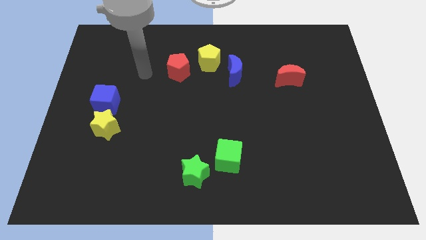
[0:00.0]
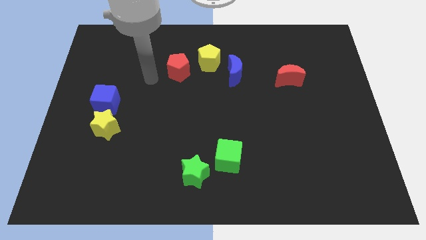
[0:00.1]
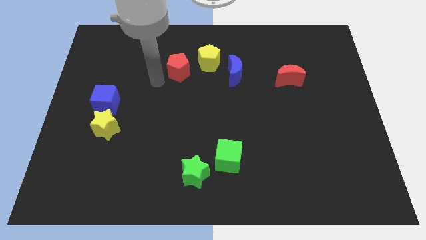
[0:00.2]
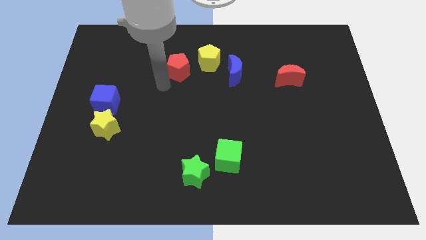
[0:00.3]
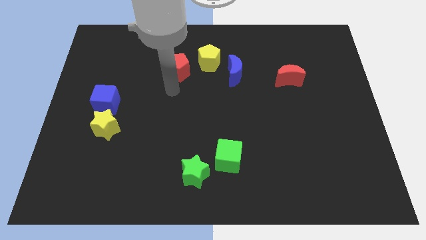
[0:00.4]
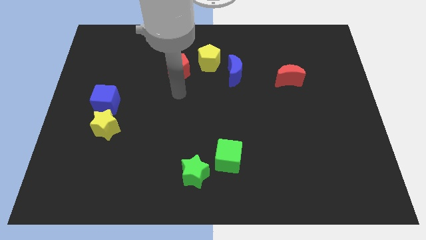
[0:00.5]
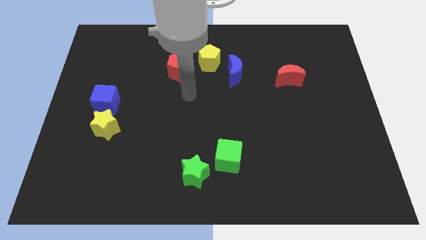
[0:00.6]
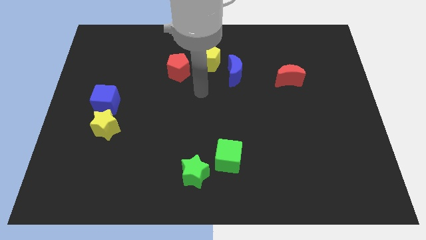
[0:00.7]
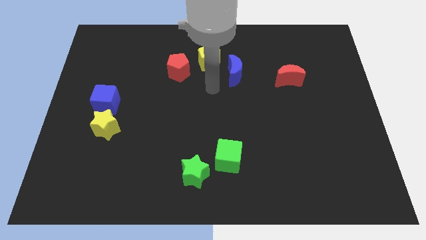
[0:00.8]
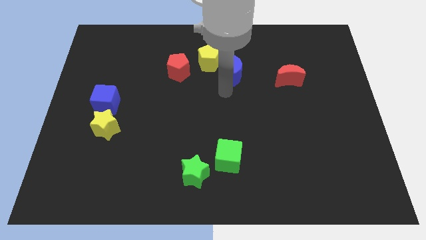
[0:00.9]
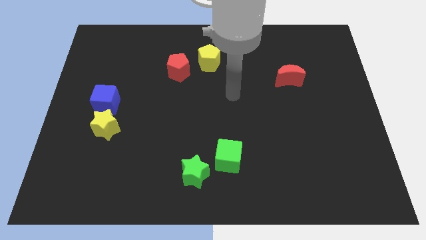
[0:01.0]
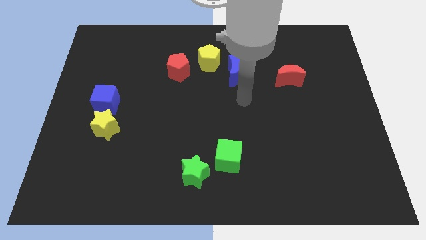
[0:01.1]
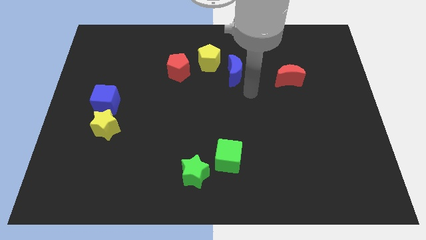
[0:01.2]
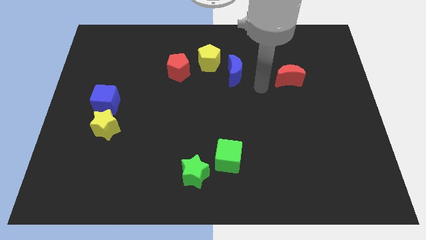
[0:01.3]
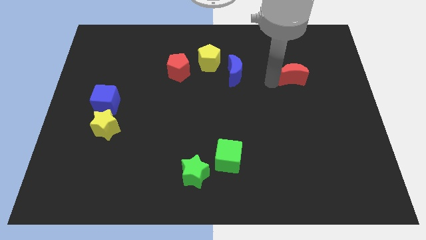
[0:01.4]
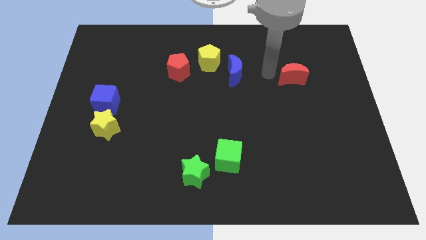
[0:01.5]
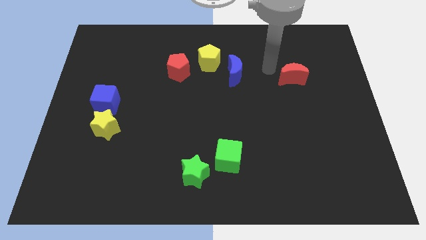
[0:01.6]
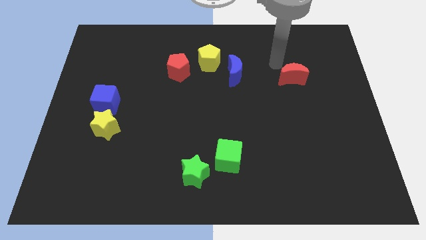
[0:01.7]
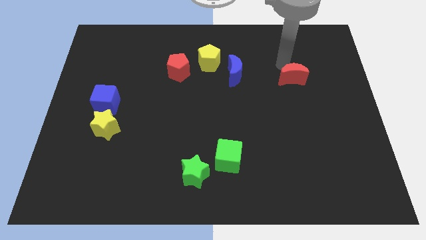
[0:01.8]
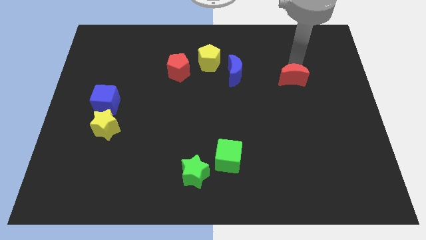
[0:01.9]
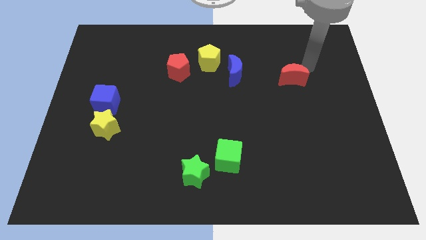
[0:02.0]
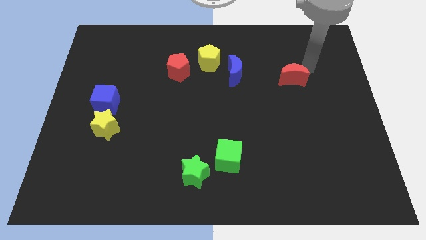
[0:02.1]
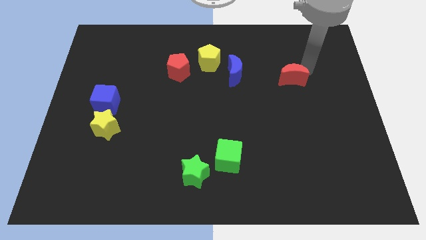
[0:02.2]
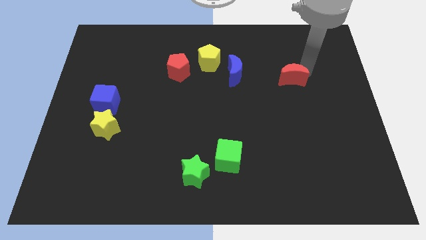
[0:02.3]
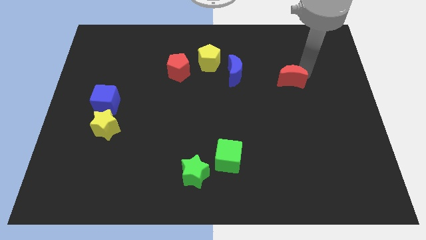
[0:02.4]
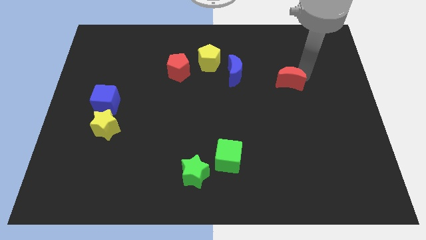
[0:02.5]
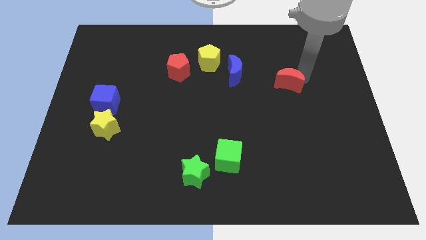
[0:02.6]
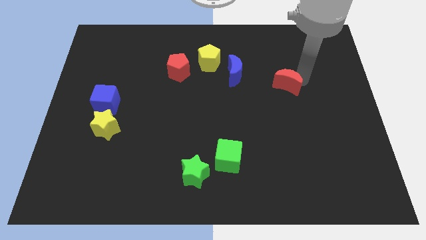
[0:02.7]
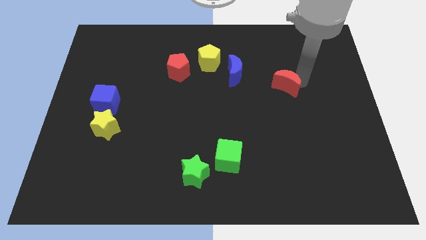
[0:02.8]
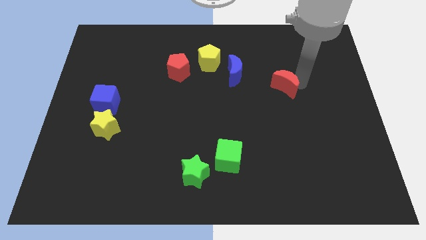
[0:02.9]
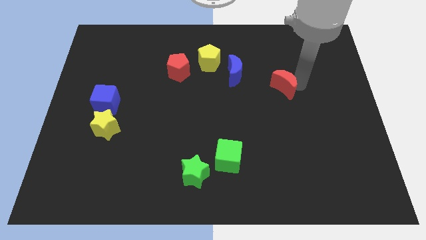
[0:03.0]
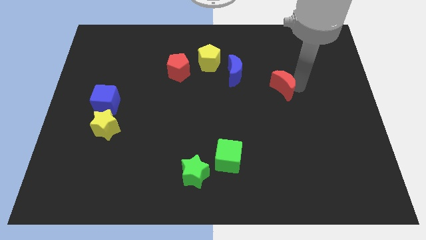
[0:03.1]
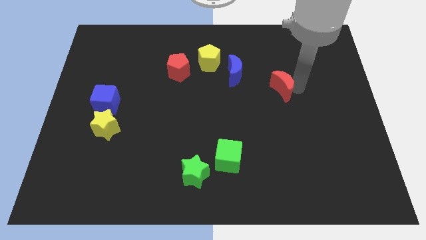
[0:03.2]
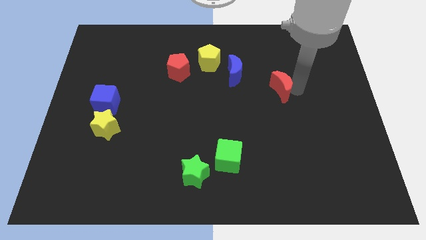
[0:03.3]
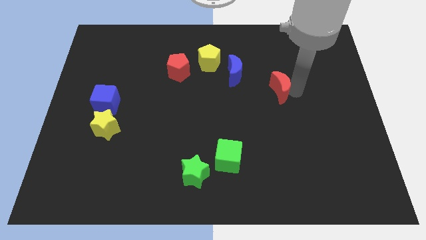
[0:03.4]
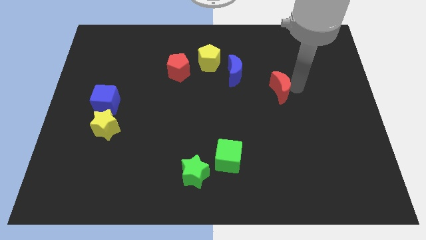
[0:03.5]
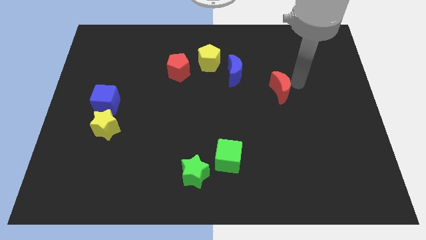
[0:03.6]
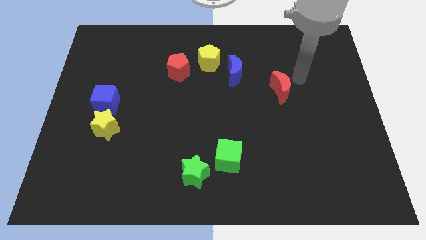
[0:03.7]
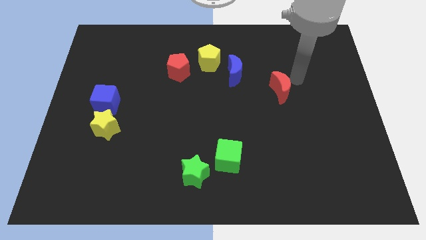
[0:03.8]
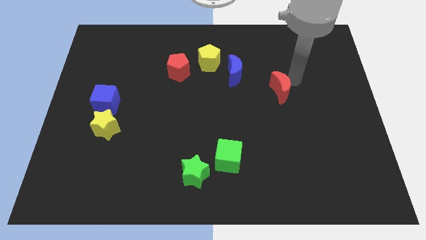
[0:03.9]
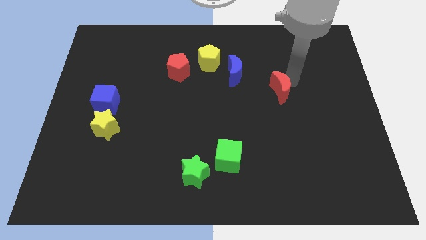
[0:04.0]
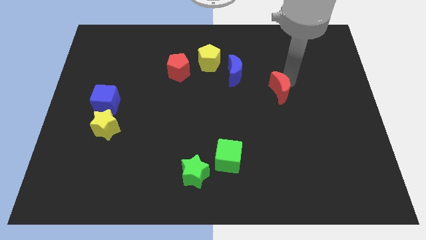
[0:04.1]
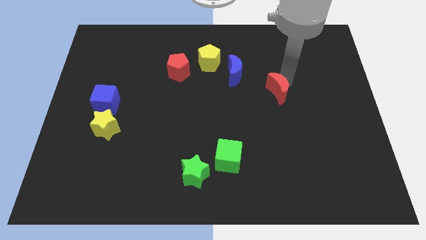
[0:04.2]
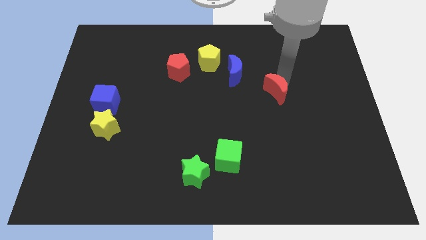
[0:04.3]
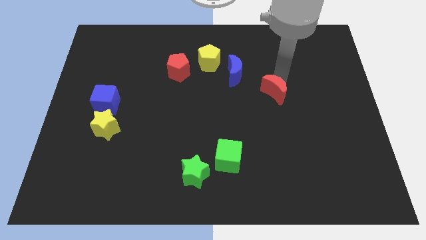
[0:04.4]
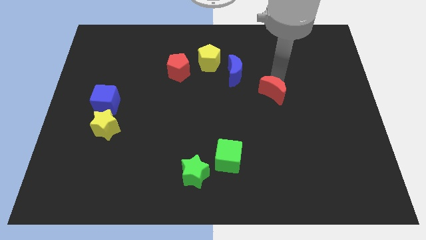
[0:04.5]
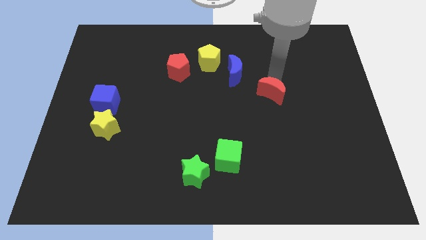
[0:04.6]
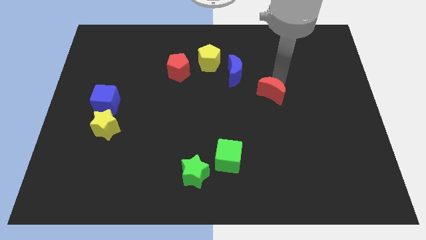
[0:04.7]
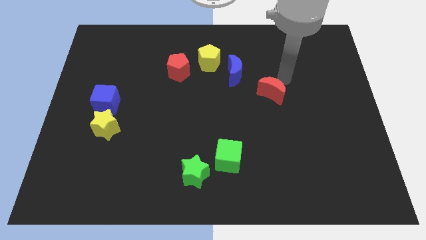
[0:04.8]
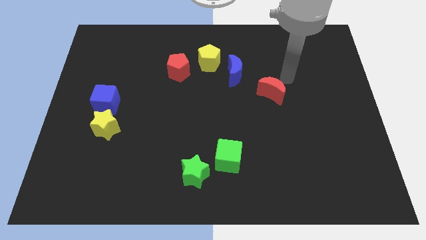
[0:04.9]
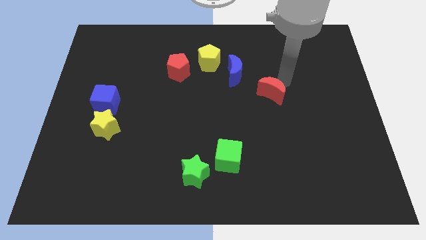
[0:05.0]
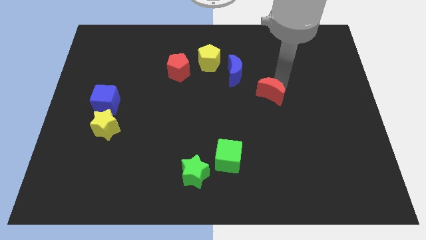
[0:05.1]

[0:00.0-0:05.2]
move the red moon a bit down and to the left

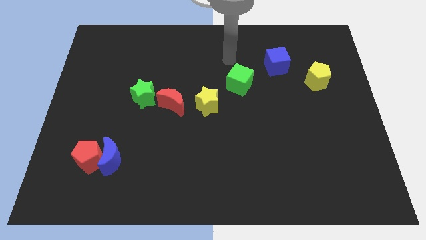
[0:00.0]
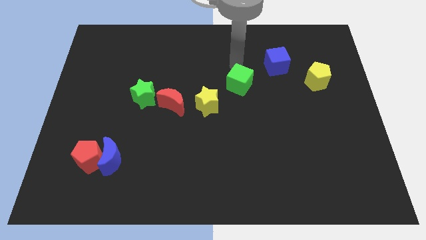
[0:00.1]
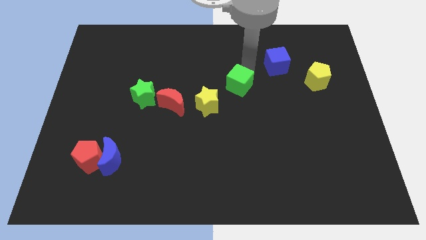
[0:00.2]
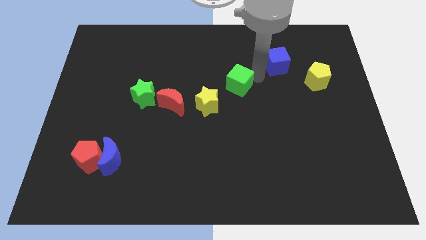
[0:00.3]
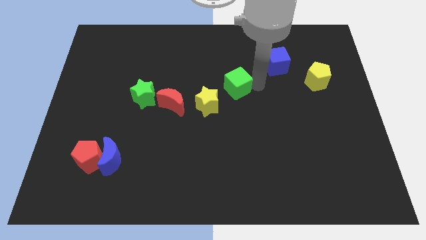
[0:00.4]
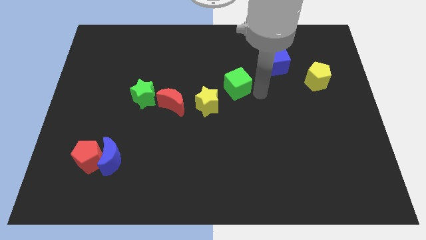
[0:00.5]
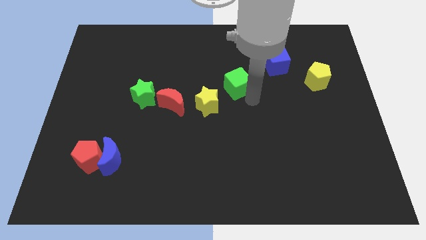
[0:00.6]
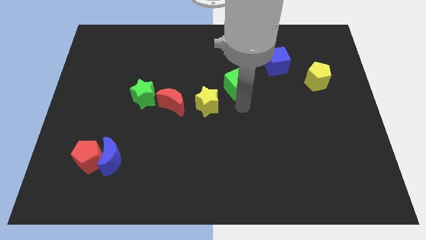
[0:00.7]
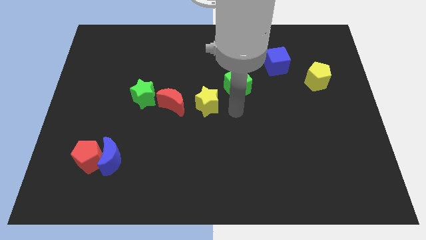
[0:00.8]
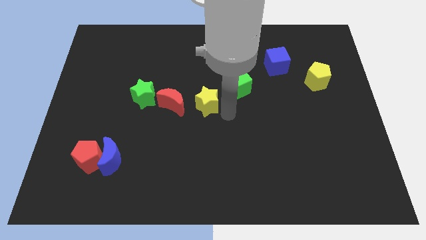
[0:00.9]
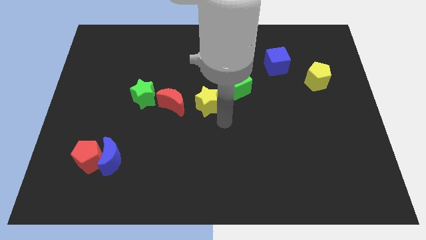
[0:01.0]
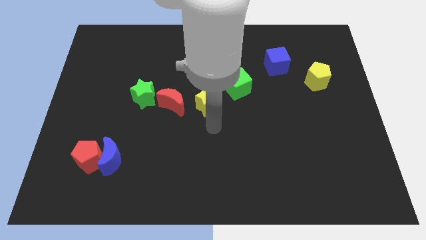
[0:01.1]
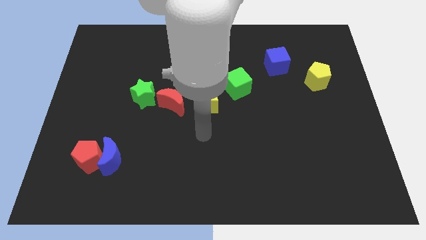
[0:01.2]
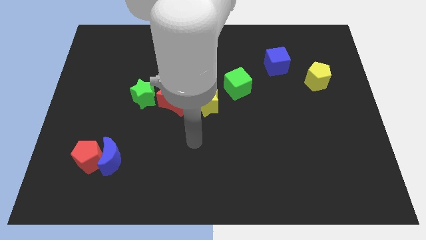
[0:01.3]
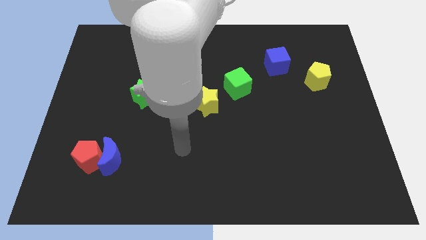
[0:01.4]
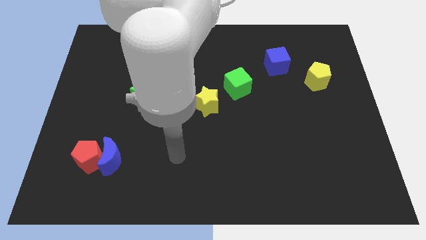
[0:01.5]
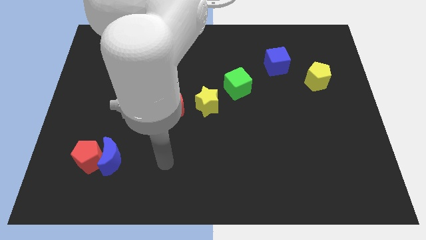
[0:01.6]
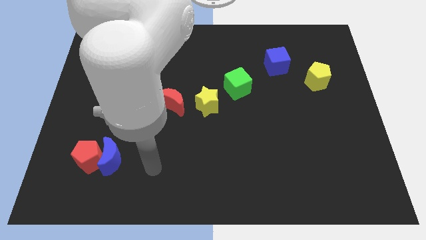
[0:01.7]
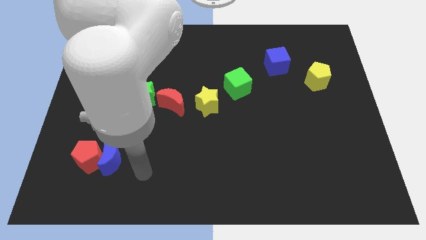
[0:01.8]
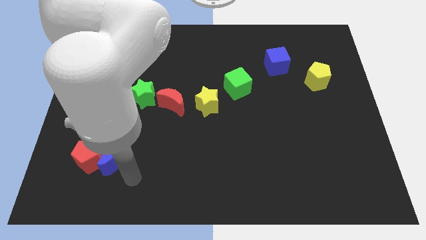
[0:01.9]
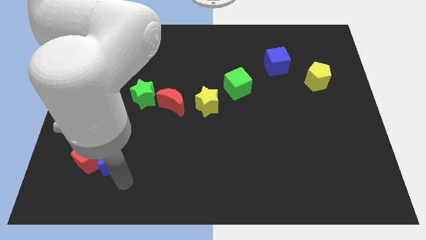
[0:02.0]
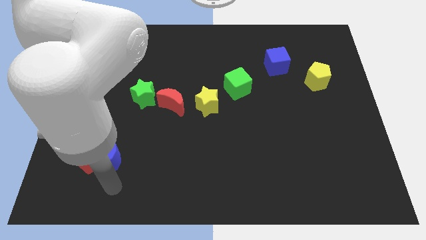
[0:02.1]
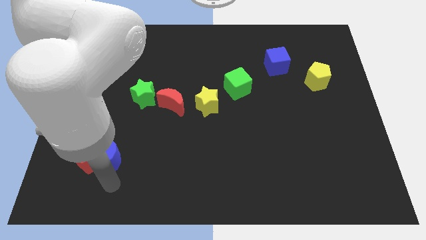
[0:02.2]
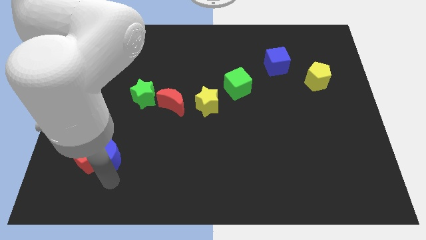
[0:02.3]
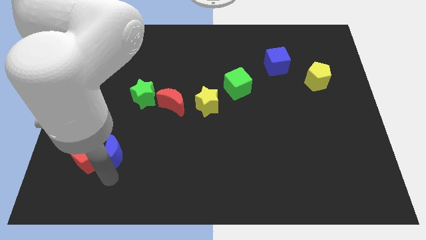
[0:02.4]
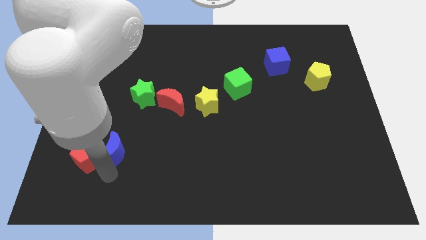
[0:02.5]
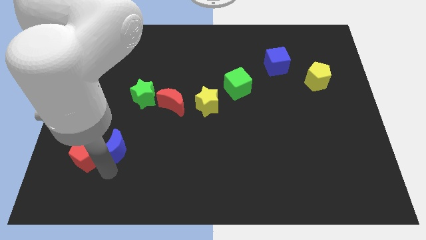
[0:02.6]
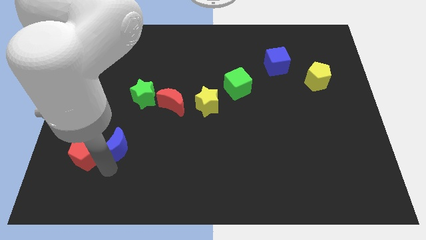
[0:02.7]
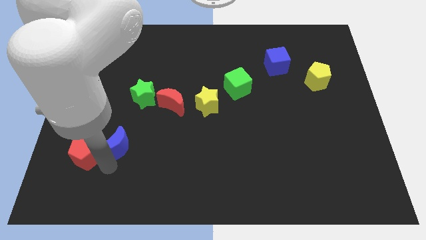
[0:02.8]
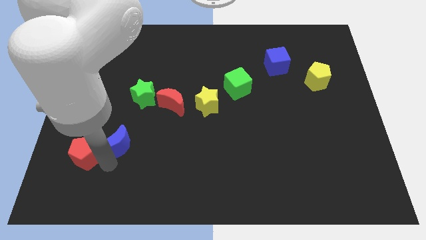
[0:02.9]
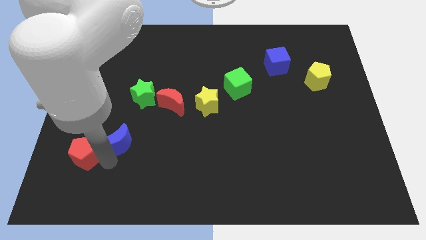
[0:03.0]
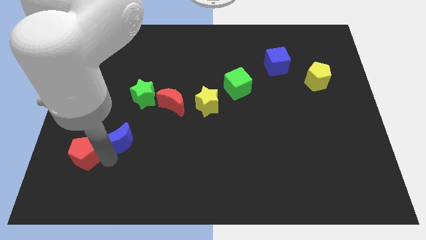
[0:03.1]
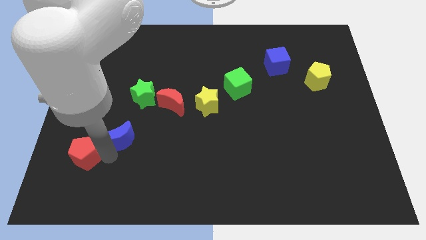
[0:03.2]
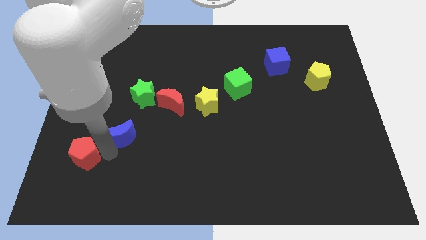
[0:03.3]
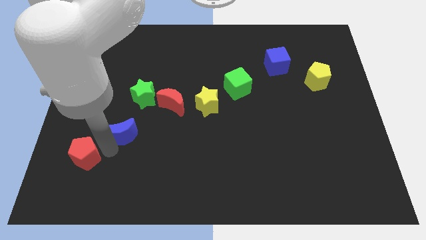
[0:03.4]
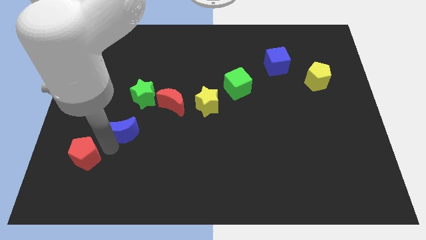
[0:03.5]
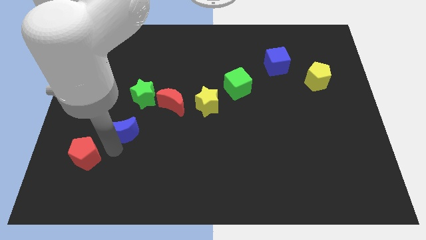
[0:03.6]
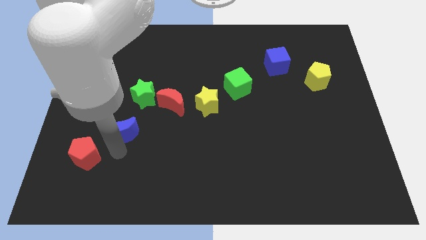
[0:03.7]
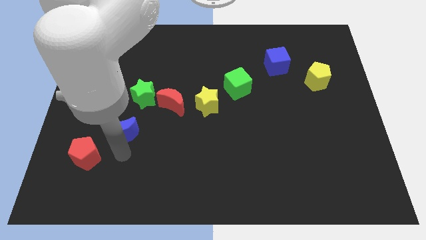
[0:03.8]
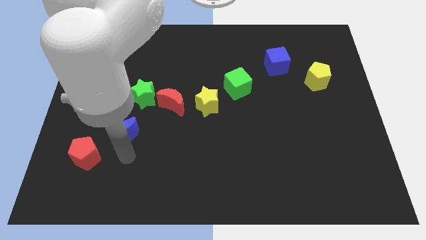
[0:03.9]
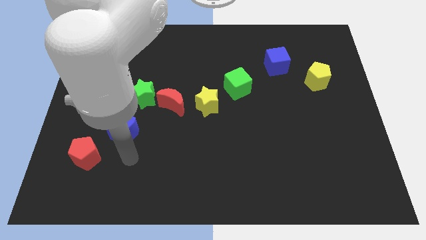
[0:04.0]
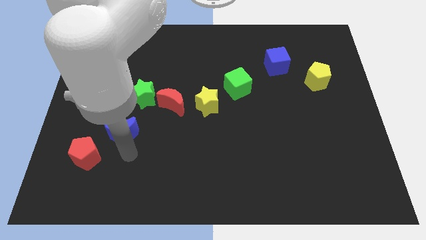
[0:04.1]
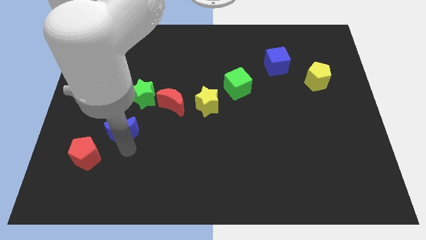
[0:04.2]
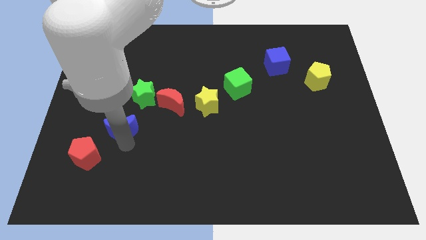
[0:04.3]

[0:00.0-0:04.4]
slightly move the blue moon upwards
